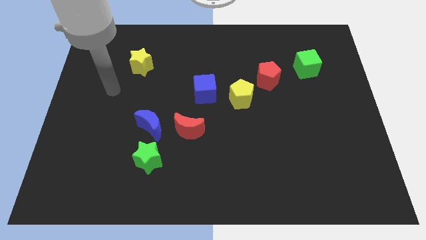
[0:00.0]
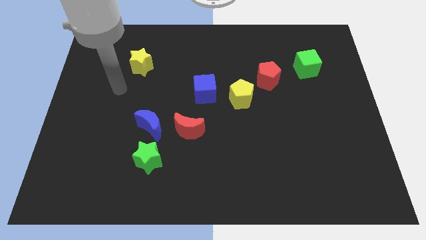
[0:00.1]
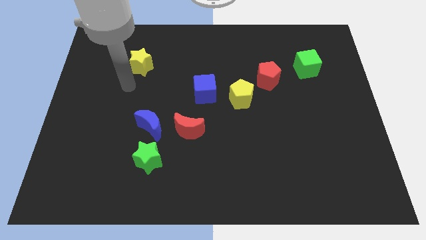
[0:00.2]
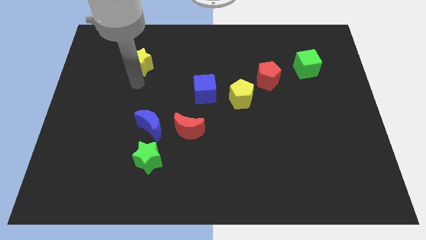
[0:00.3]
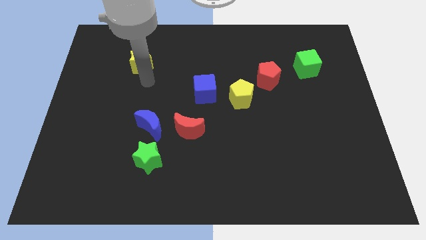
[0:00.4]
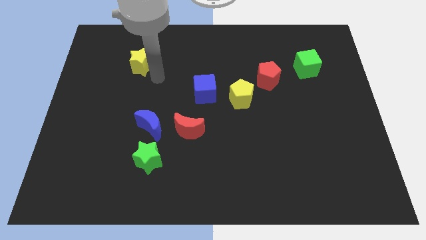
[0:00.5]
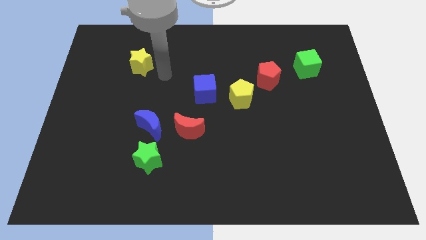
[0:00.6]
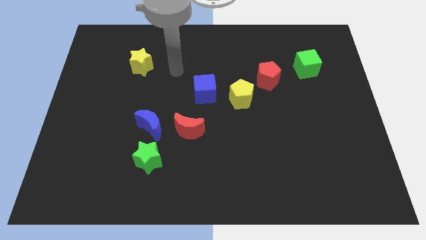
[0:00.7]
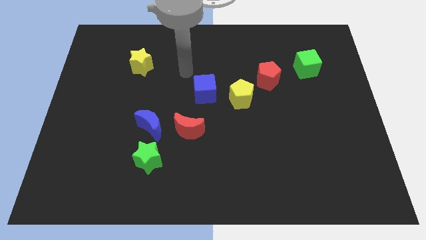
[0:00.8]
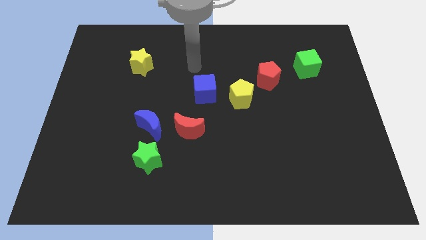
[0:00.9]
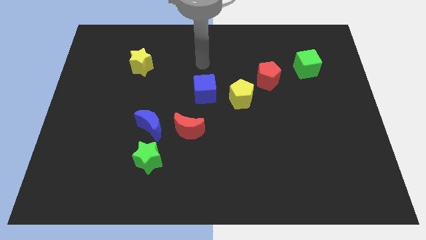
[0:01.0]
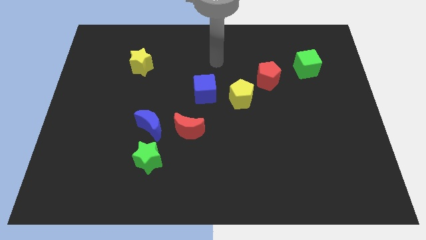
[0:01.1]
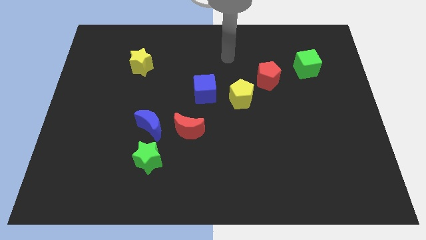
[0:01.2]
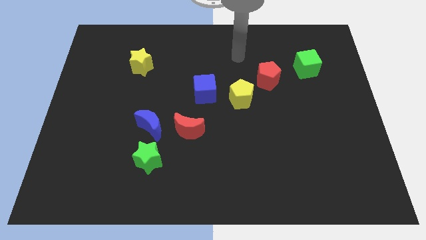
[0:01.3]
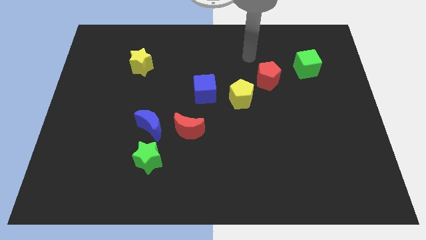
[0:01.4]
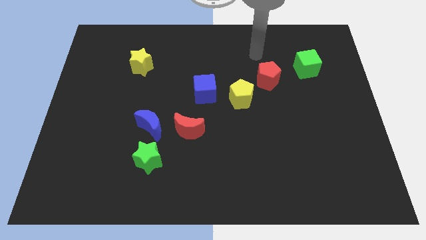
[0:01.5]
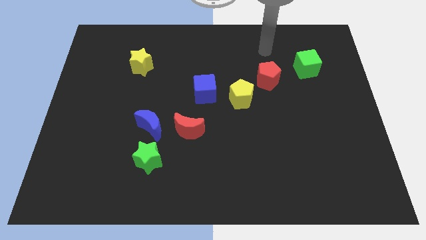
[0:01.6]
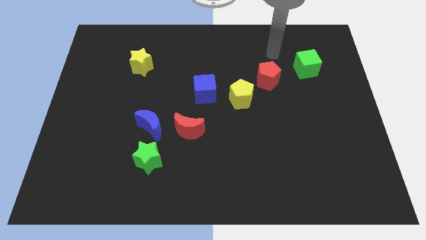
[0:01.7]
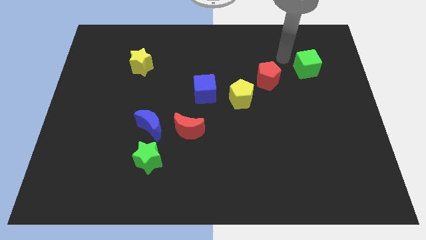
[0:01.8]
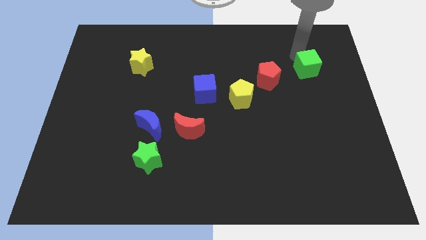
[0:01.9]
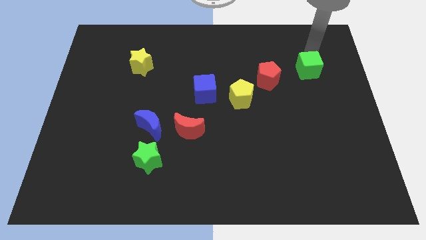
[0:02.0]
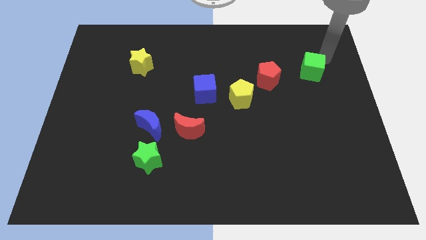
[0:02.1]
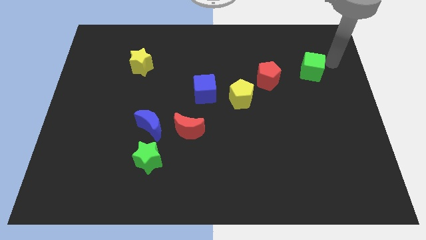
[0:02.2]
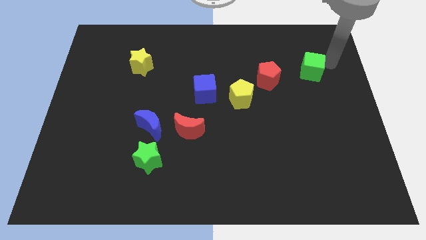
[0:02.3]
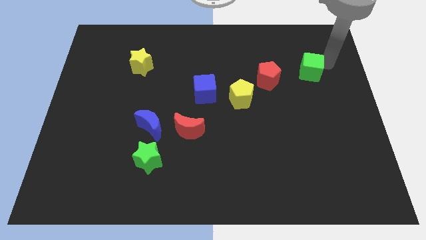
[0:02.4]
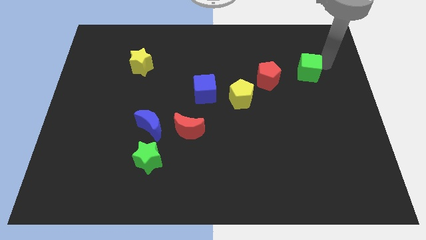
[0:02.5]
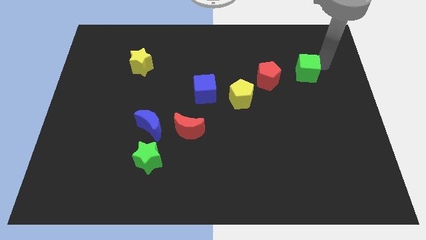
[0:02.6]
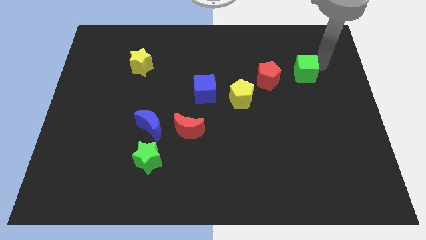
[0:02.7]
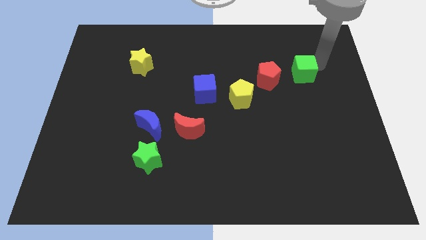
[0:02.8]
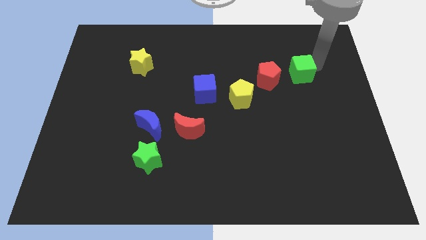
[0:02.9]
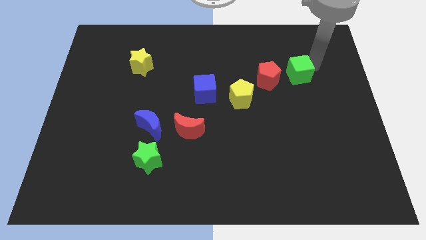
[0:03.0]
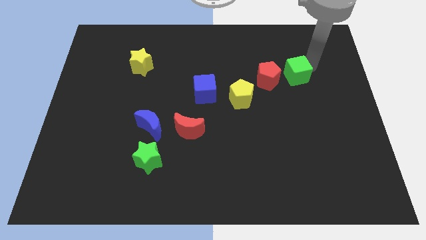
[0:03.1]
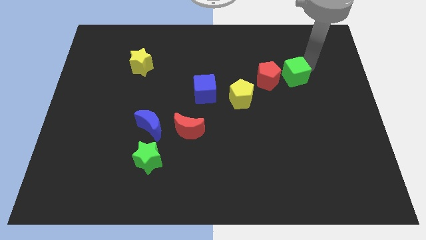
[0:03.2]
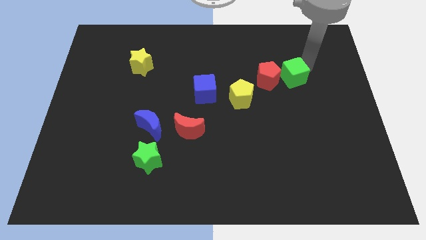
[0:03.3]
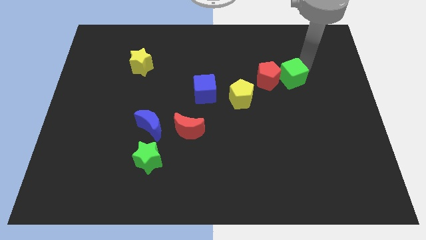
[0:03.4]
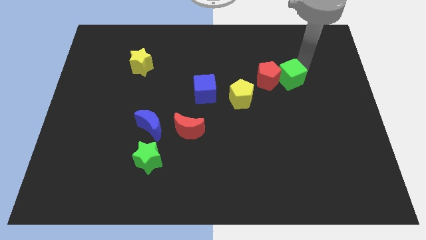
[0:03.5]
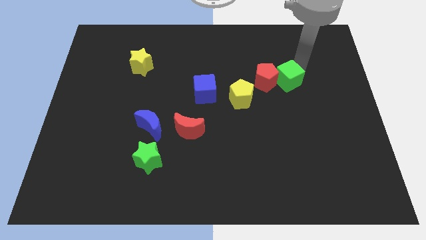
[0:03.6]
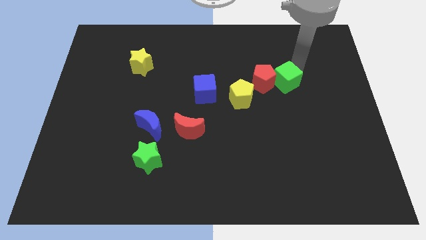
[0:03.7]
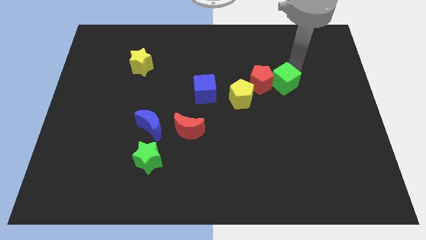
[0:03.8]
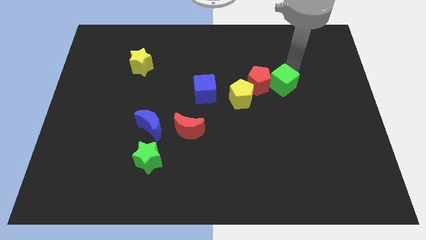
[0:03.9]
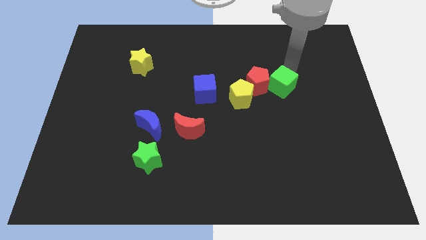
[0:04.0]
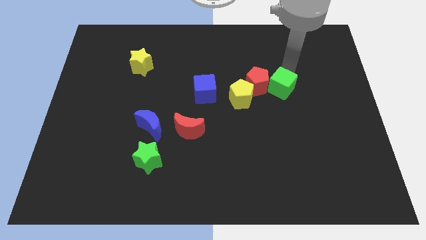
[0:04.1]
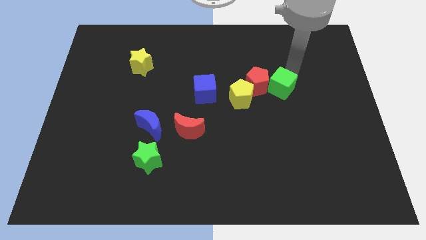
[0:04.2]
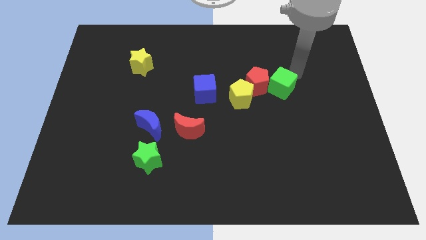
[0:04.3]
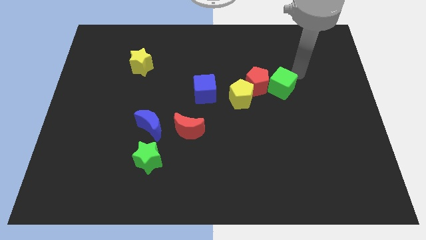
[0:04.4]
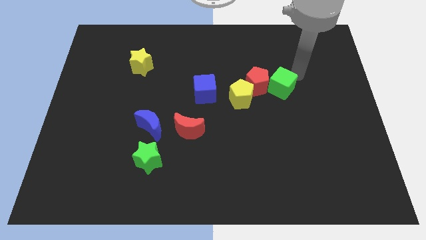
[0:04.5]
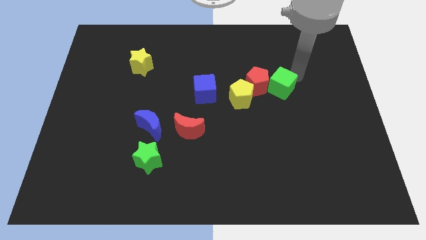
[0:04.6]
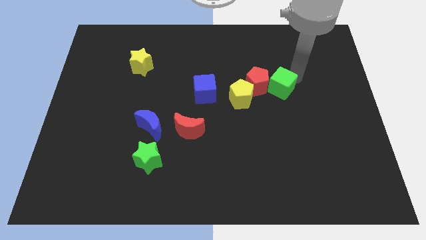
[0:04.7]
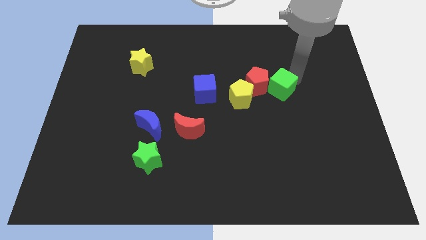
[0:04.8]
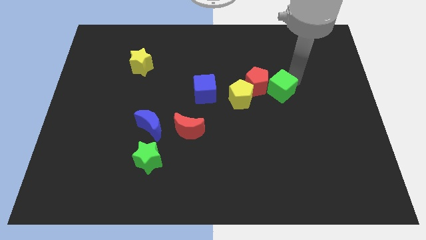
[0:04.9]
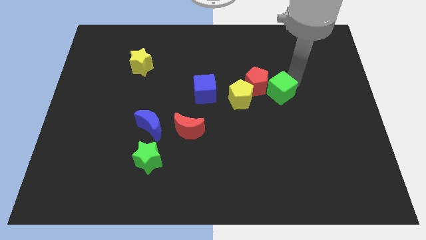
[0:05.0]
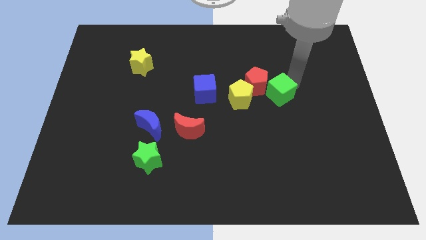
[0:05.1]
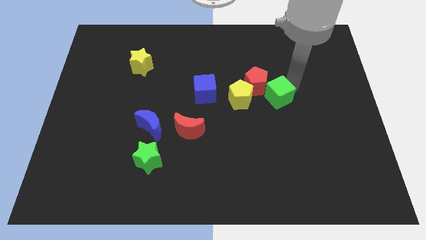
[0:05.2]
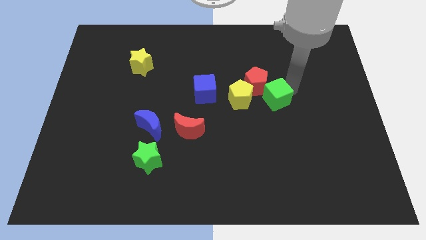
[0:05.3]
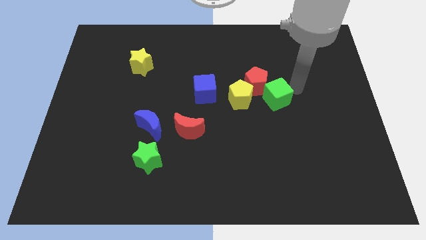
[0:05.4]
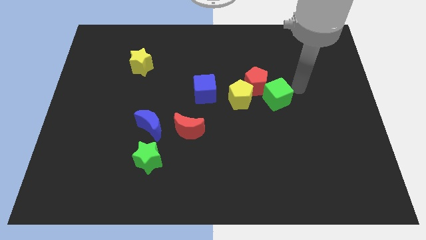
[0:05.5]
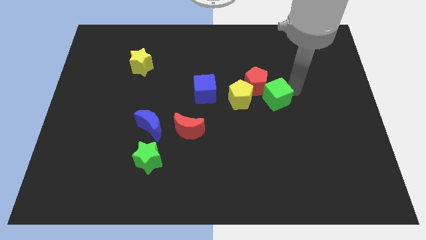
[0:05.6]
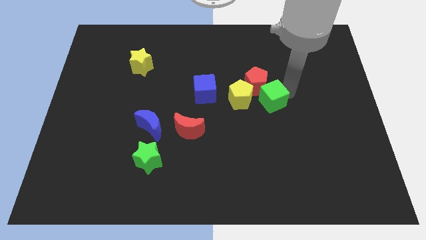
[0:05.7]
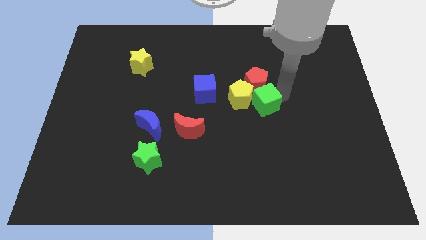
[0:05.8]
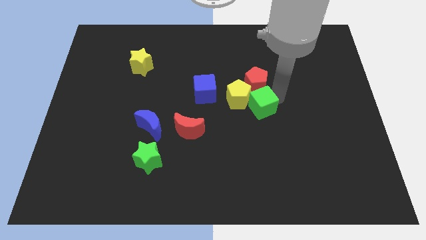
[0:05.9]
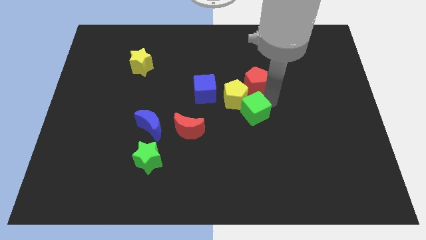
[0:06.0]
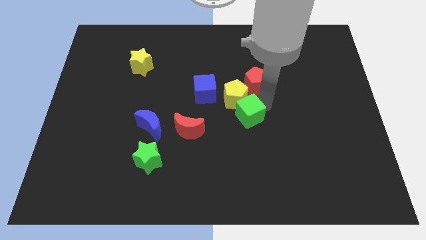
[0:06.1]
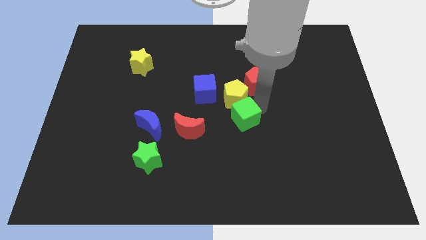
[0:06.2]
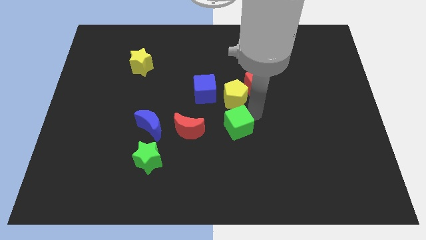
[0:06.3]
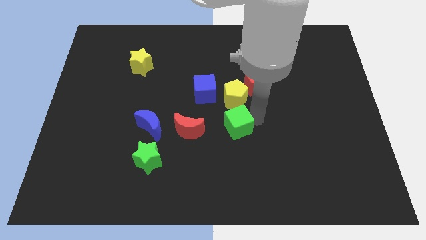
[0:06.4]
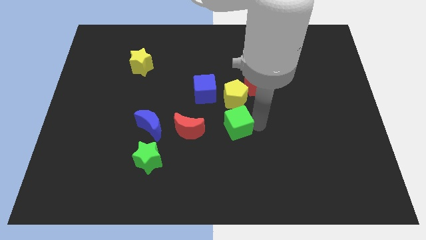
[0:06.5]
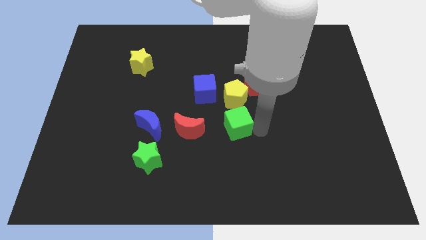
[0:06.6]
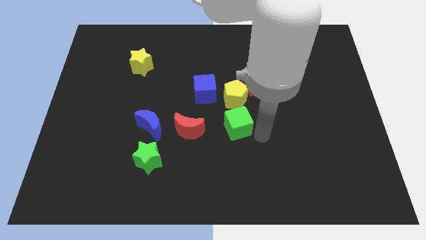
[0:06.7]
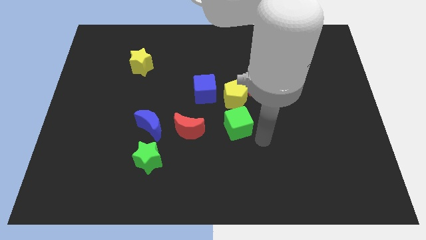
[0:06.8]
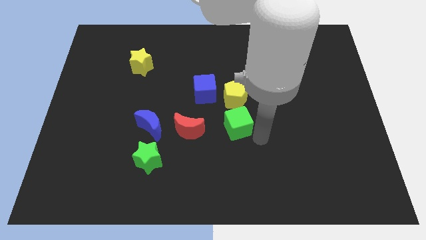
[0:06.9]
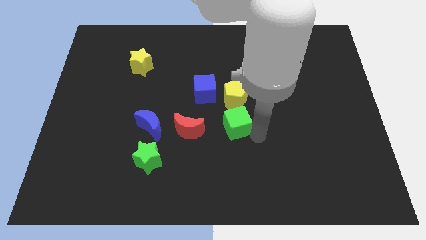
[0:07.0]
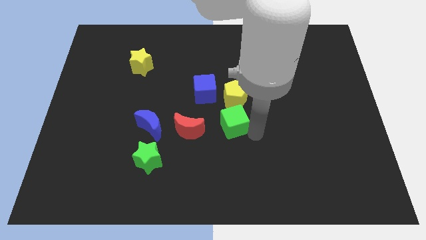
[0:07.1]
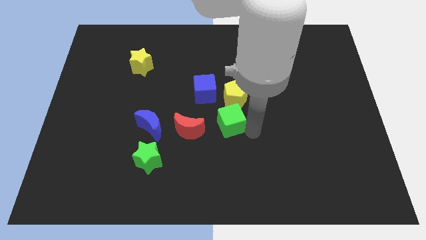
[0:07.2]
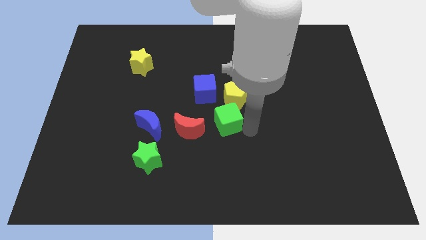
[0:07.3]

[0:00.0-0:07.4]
move the green cube diagonally up and to the right of the red moon
